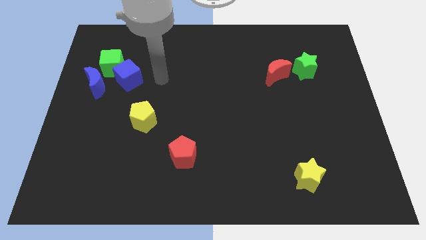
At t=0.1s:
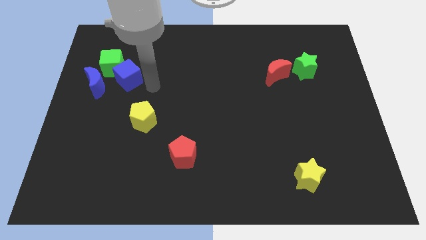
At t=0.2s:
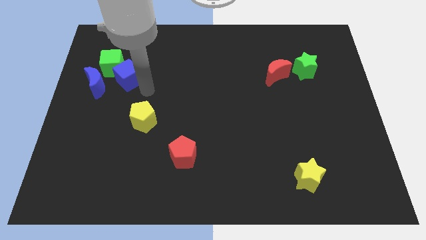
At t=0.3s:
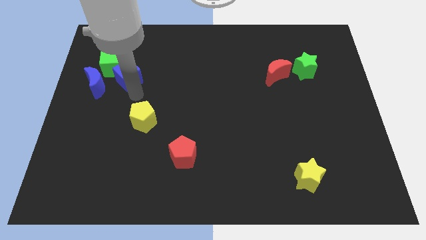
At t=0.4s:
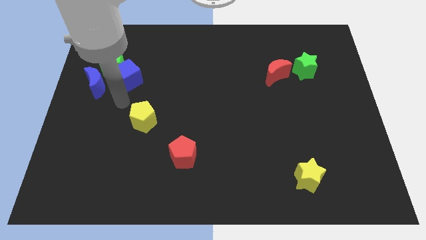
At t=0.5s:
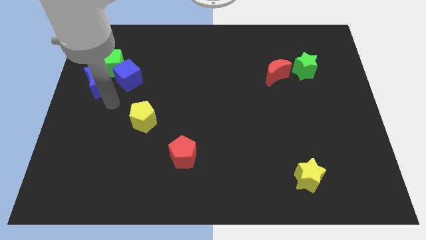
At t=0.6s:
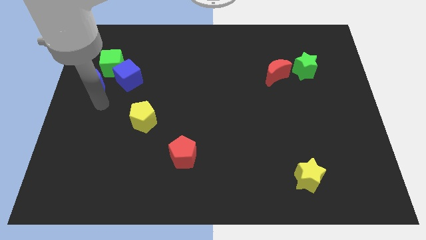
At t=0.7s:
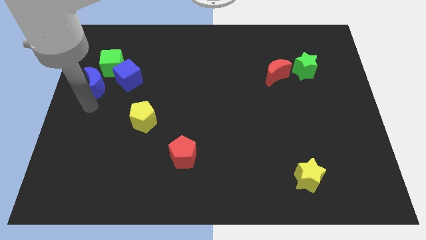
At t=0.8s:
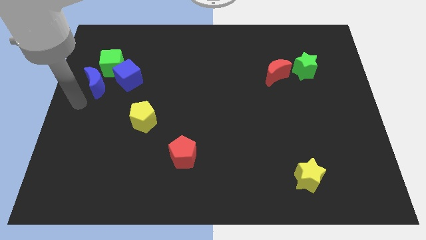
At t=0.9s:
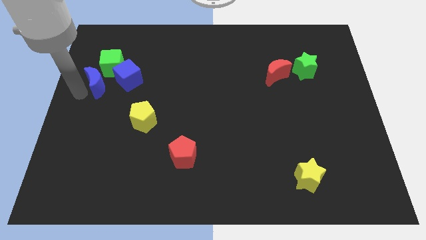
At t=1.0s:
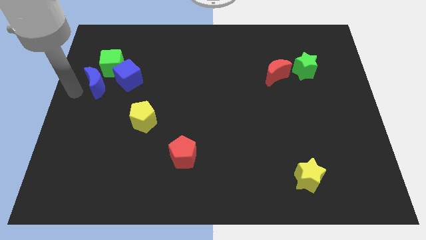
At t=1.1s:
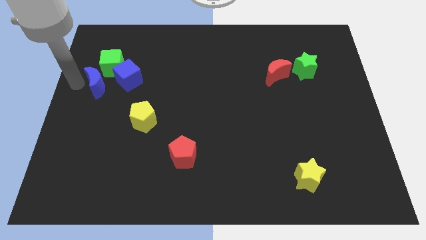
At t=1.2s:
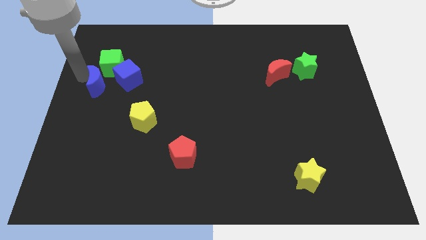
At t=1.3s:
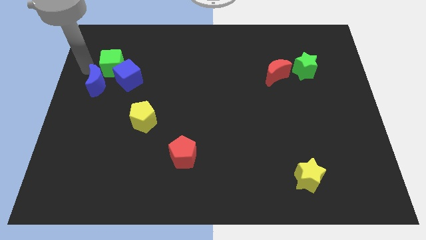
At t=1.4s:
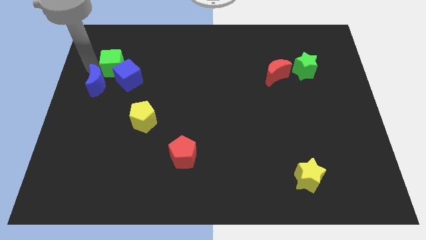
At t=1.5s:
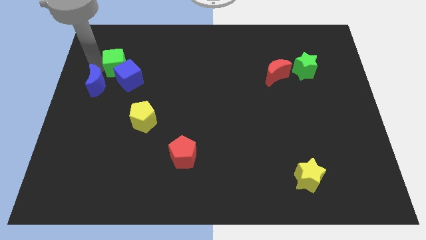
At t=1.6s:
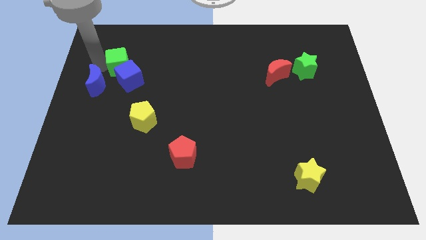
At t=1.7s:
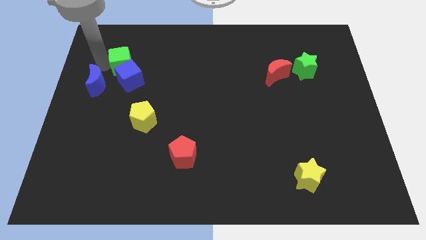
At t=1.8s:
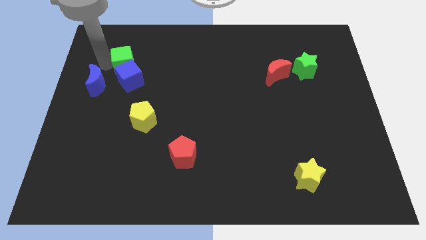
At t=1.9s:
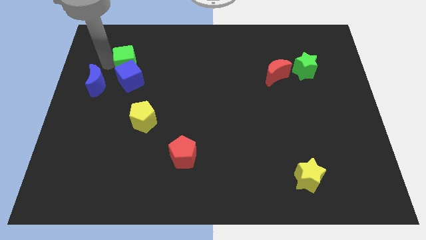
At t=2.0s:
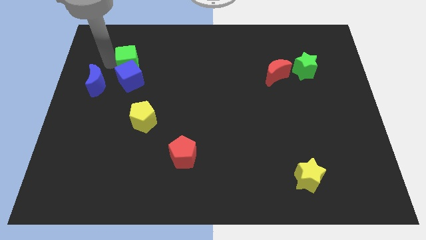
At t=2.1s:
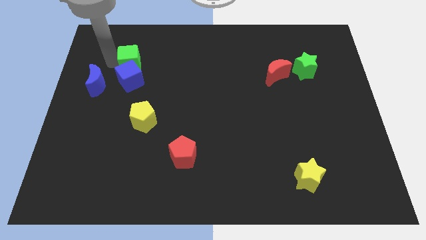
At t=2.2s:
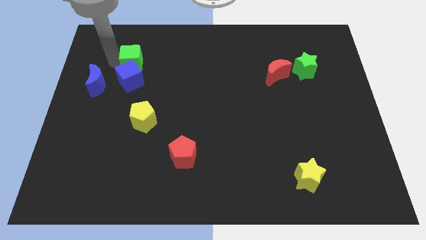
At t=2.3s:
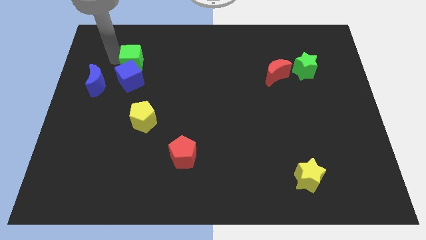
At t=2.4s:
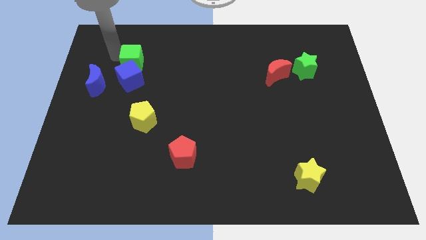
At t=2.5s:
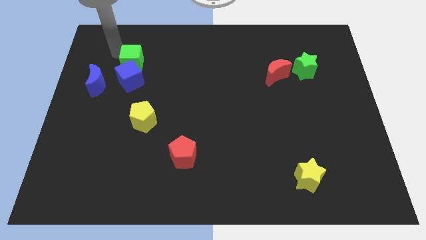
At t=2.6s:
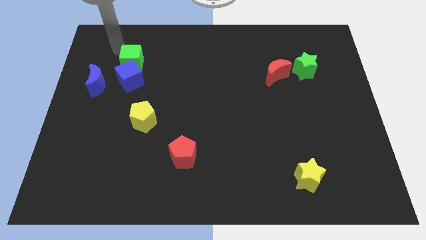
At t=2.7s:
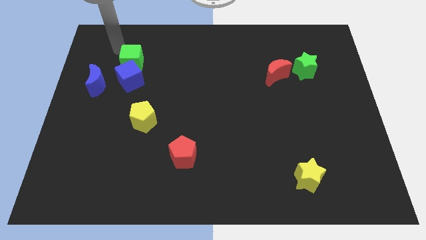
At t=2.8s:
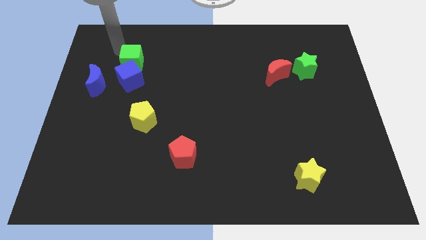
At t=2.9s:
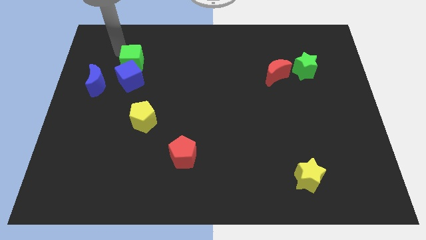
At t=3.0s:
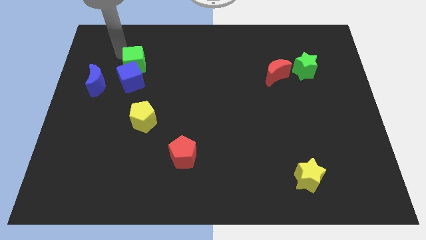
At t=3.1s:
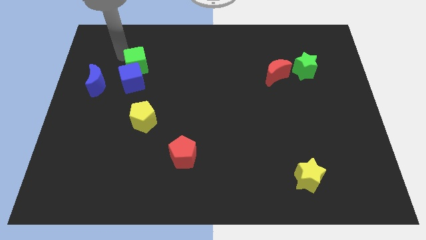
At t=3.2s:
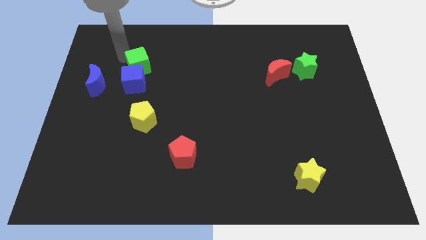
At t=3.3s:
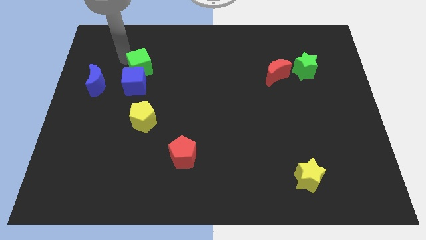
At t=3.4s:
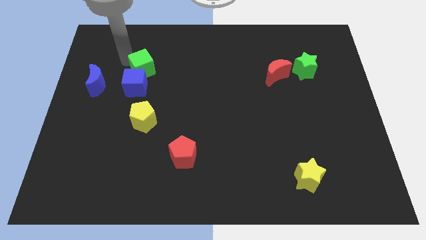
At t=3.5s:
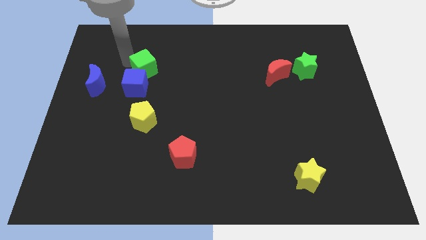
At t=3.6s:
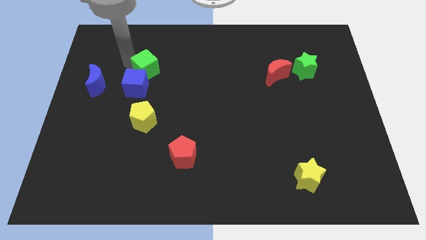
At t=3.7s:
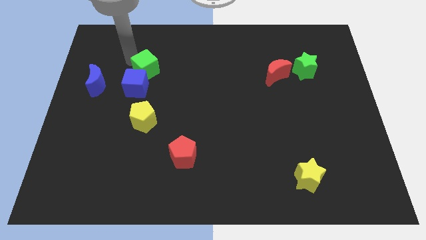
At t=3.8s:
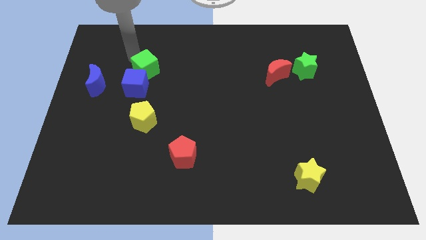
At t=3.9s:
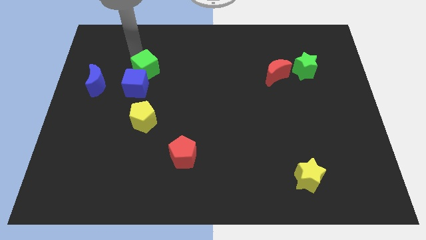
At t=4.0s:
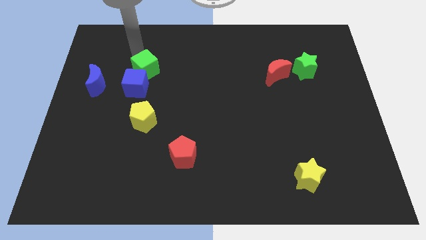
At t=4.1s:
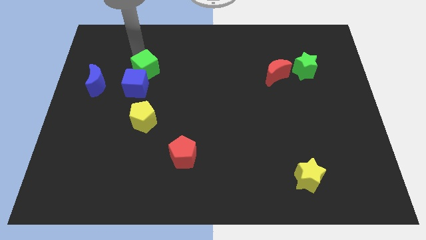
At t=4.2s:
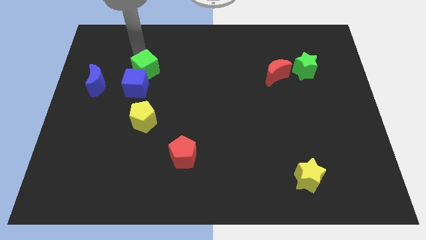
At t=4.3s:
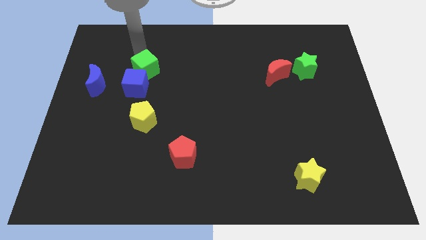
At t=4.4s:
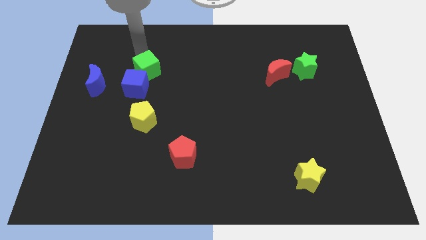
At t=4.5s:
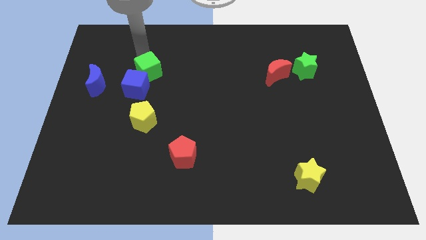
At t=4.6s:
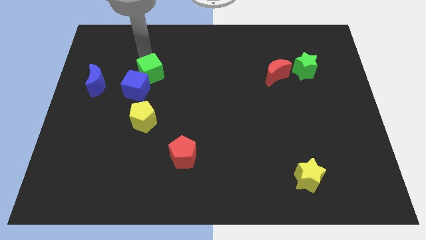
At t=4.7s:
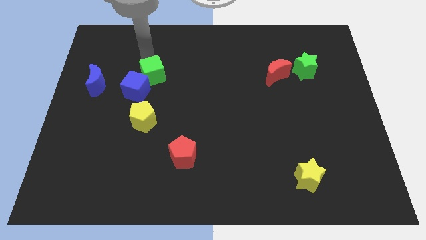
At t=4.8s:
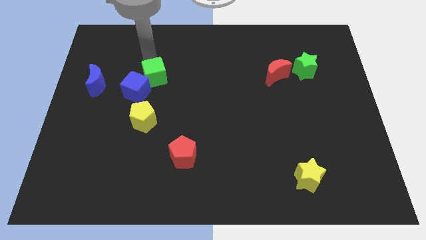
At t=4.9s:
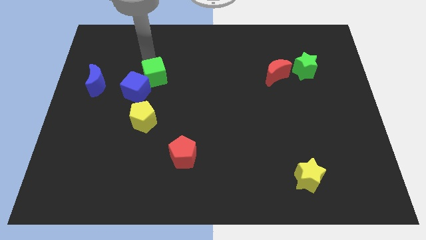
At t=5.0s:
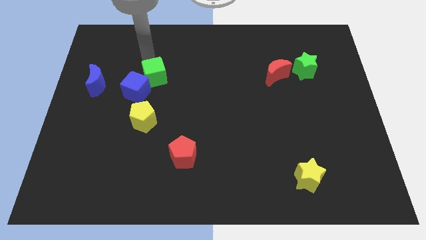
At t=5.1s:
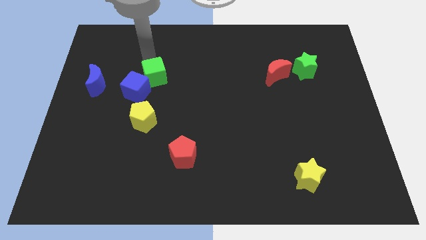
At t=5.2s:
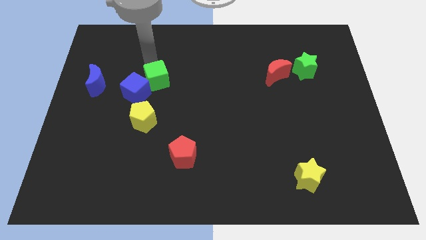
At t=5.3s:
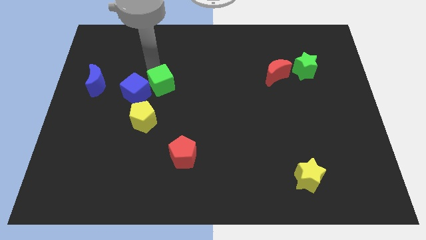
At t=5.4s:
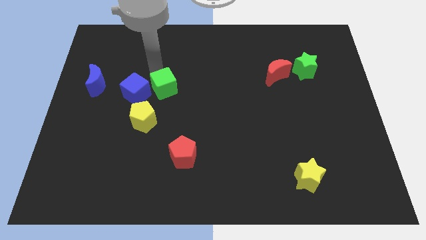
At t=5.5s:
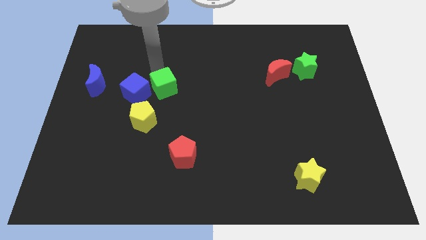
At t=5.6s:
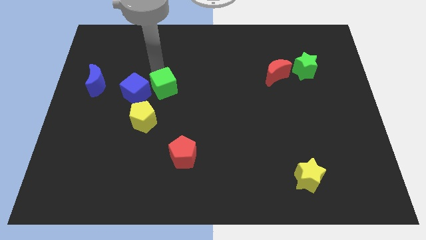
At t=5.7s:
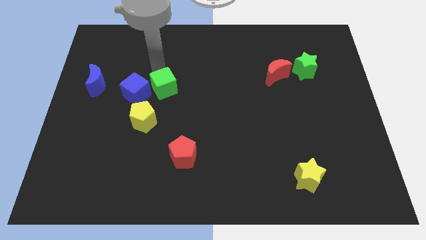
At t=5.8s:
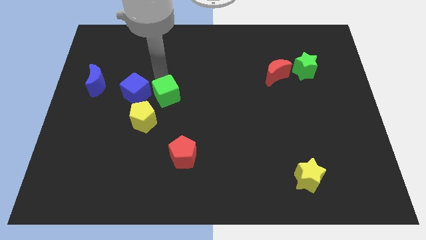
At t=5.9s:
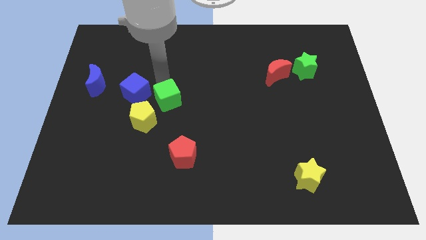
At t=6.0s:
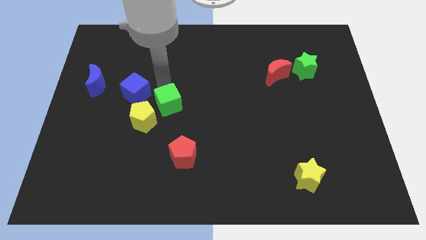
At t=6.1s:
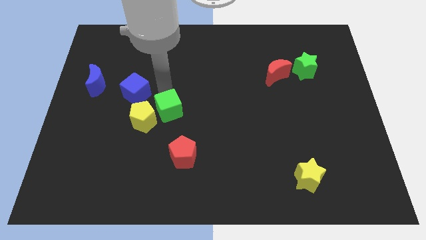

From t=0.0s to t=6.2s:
slide the green cube downwards and to the right

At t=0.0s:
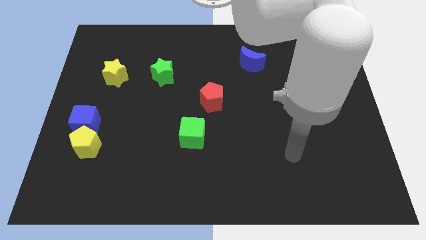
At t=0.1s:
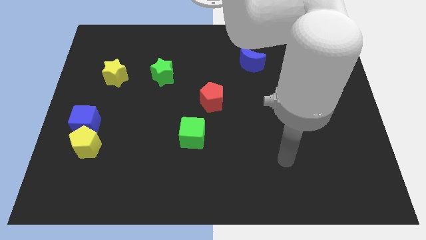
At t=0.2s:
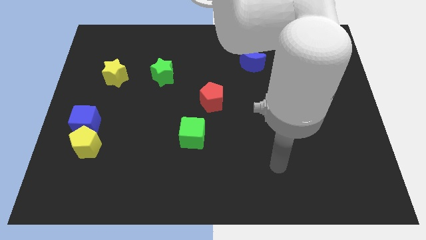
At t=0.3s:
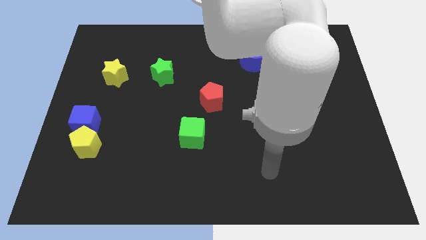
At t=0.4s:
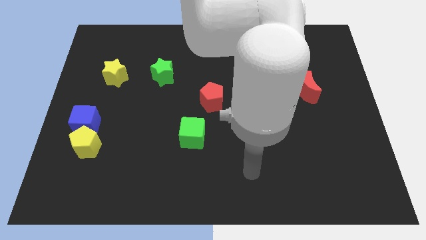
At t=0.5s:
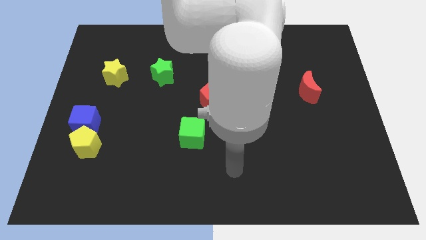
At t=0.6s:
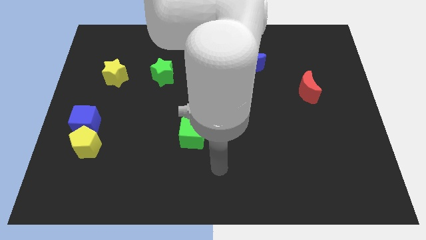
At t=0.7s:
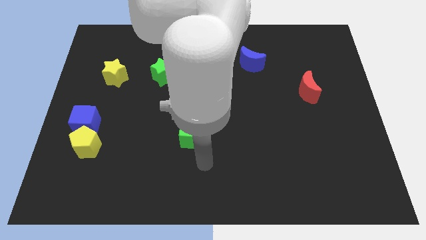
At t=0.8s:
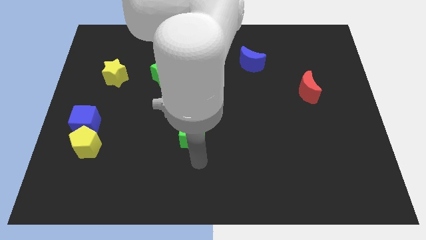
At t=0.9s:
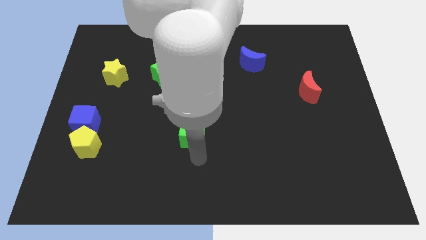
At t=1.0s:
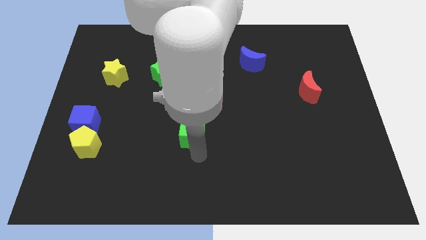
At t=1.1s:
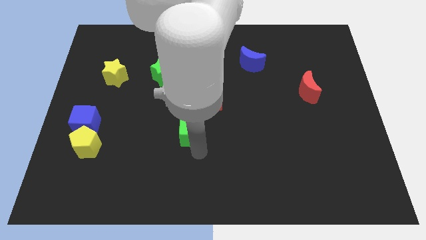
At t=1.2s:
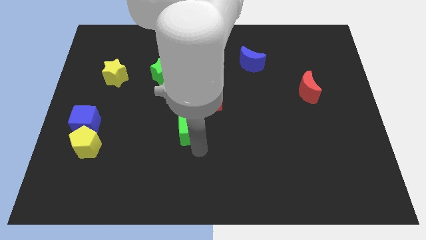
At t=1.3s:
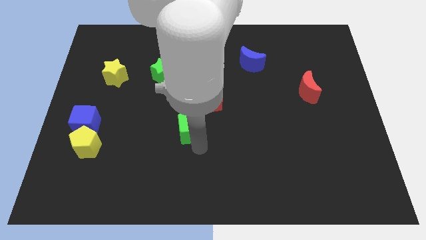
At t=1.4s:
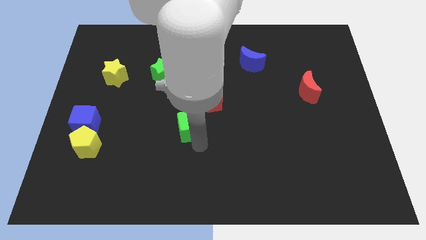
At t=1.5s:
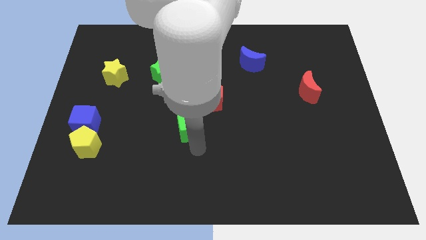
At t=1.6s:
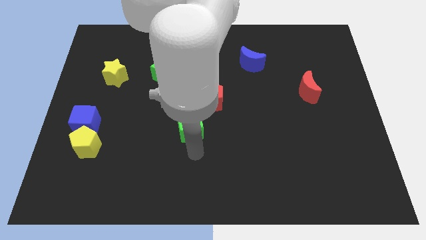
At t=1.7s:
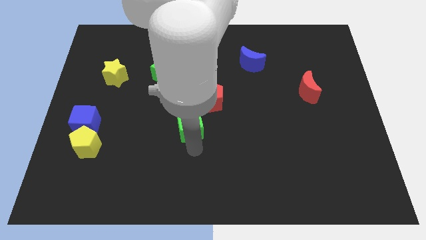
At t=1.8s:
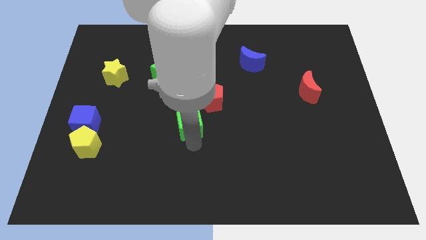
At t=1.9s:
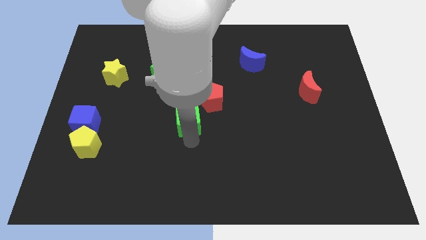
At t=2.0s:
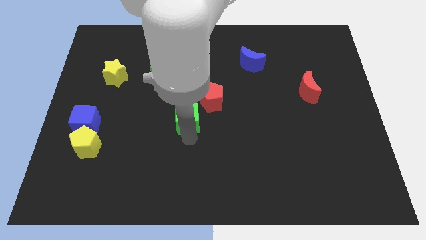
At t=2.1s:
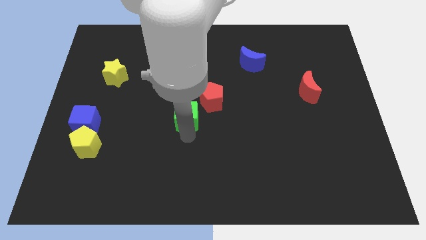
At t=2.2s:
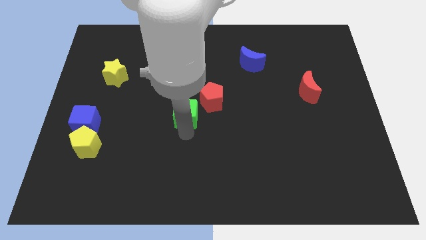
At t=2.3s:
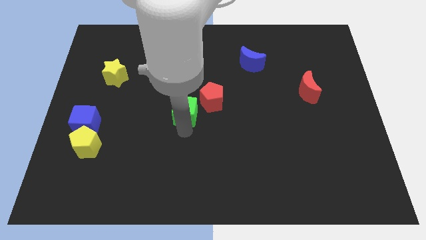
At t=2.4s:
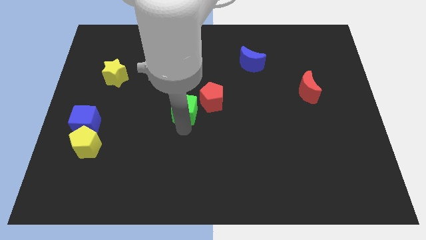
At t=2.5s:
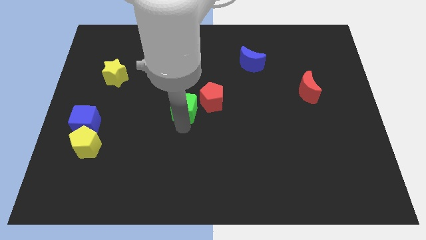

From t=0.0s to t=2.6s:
push the green cube a bit up
